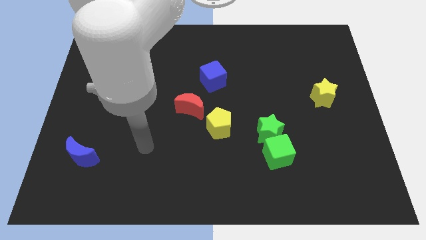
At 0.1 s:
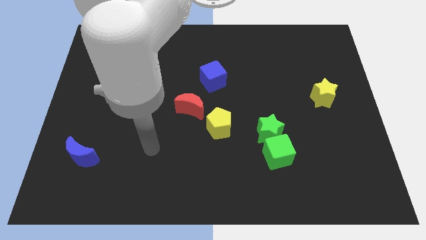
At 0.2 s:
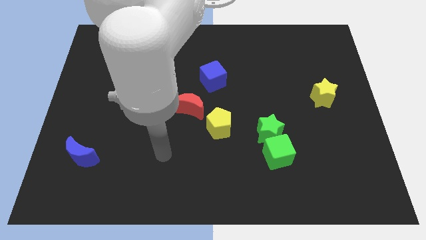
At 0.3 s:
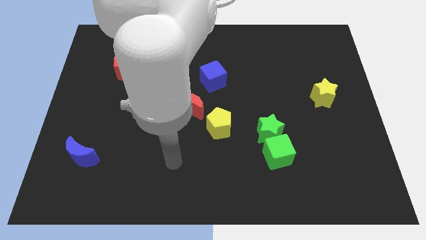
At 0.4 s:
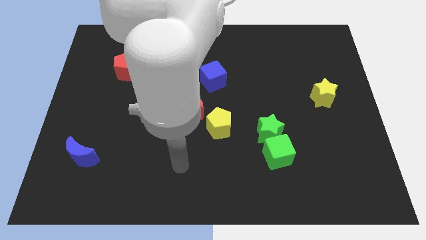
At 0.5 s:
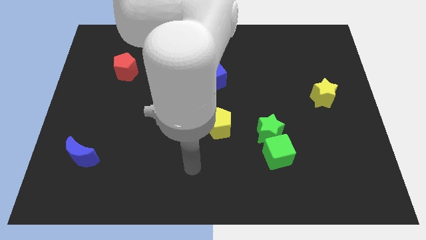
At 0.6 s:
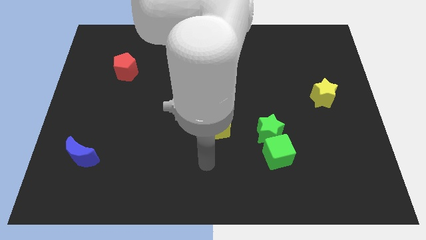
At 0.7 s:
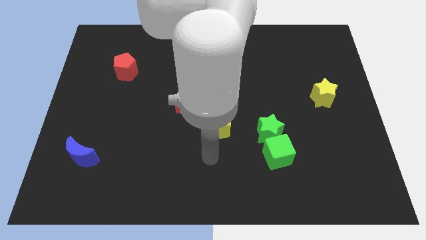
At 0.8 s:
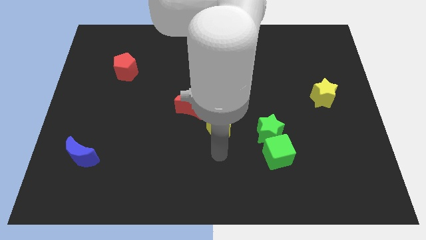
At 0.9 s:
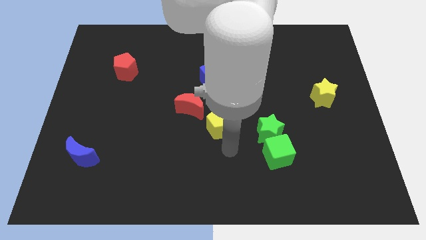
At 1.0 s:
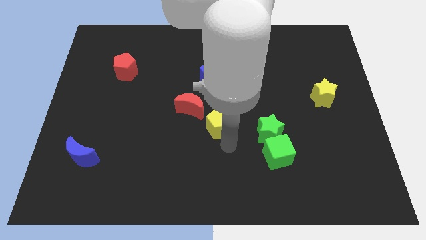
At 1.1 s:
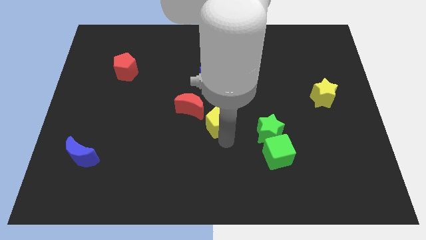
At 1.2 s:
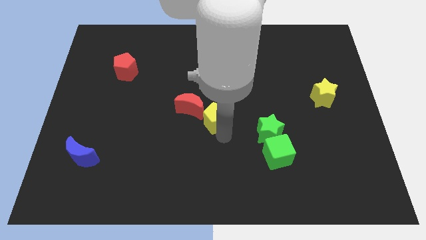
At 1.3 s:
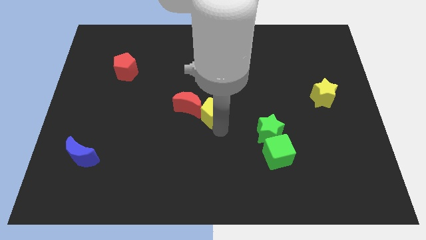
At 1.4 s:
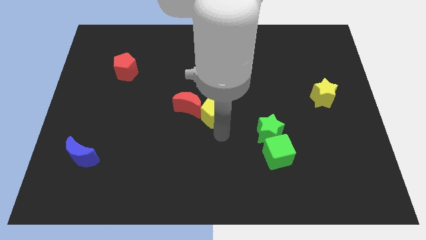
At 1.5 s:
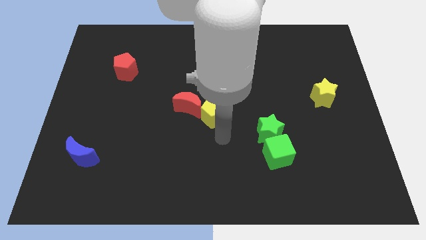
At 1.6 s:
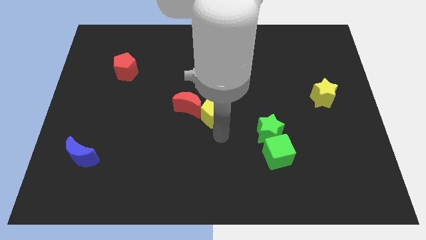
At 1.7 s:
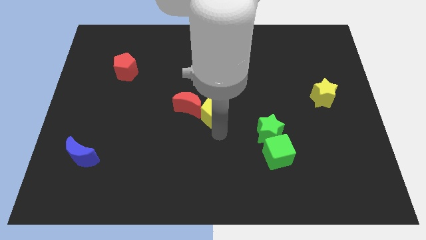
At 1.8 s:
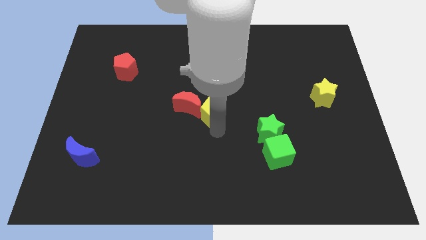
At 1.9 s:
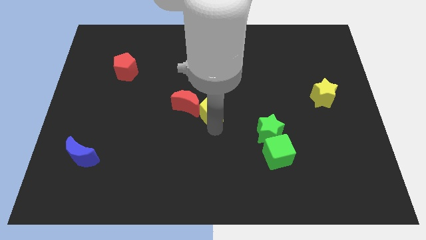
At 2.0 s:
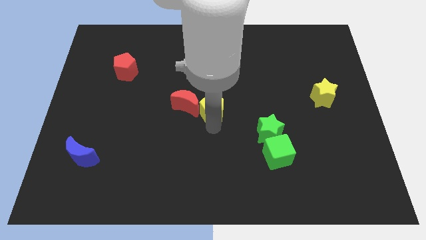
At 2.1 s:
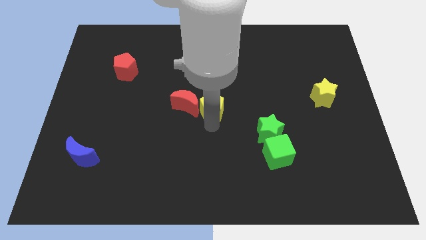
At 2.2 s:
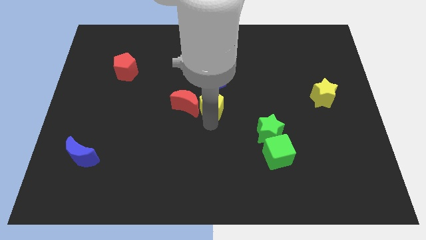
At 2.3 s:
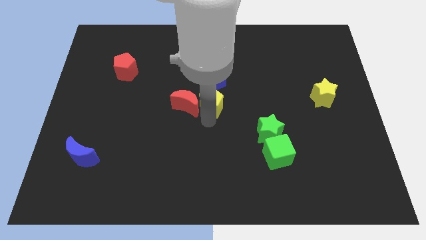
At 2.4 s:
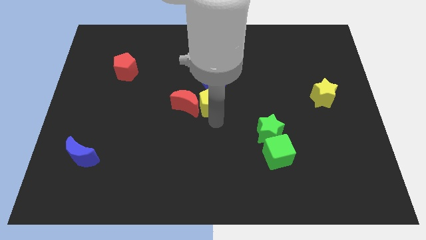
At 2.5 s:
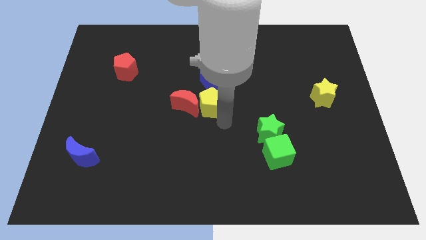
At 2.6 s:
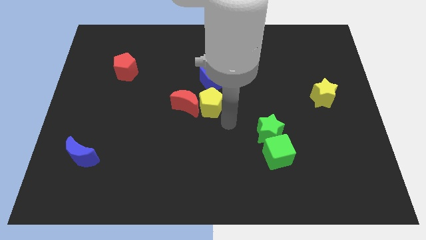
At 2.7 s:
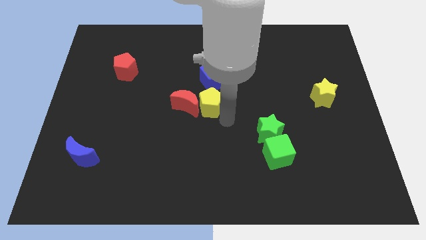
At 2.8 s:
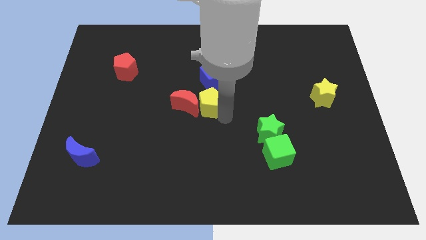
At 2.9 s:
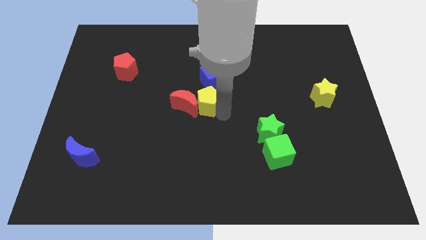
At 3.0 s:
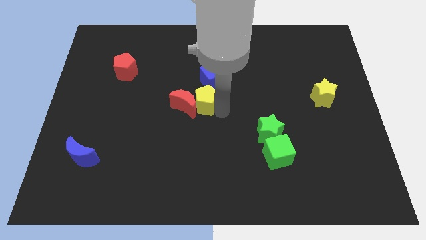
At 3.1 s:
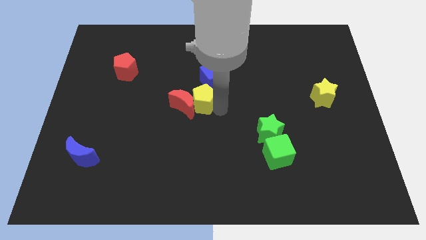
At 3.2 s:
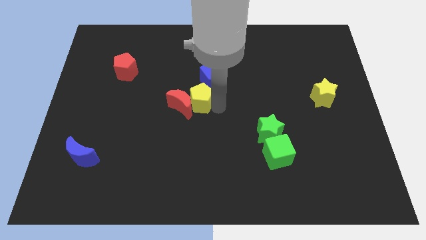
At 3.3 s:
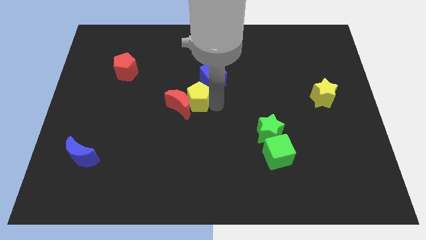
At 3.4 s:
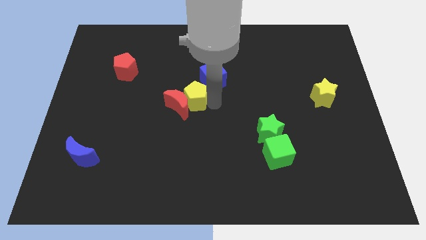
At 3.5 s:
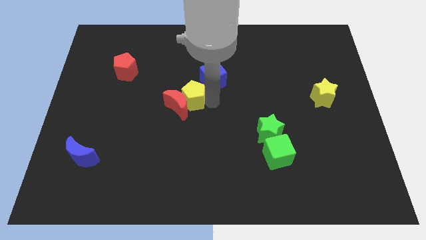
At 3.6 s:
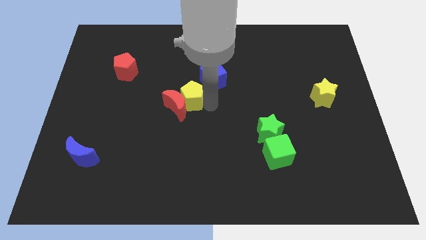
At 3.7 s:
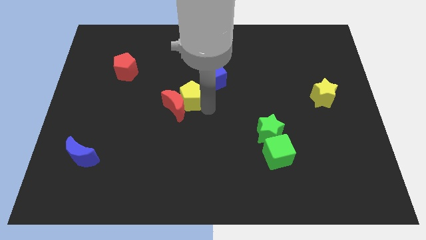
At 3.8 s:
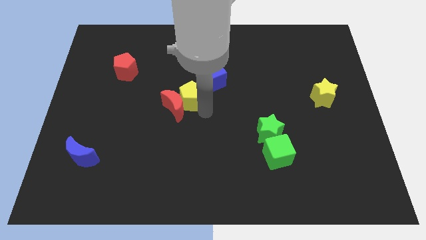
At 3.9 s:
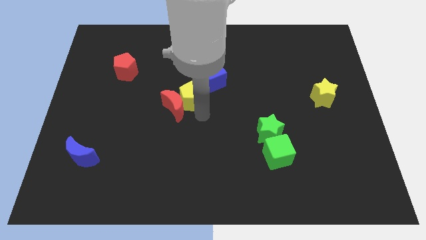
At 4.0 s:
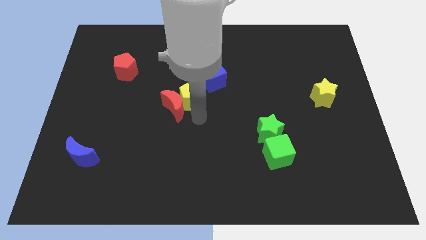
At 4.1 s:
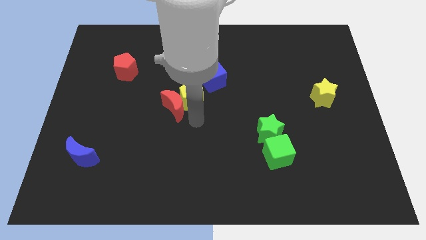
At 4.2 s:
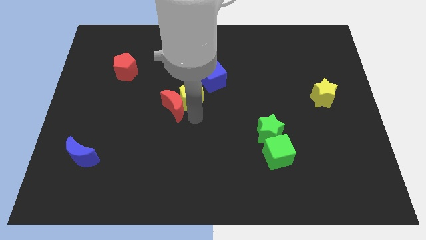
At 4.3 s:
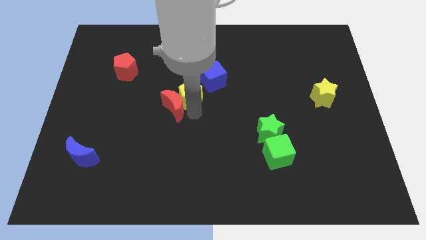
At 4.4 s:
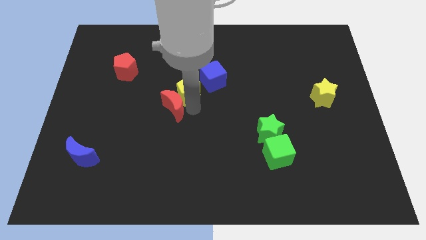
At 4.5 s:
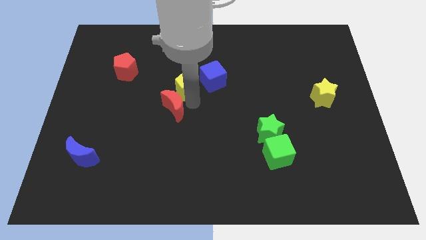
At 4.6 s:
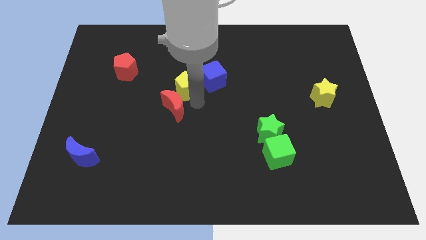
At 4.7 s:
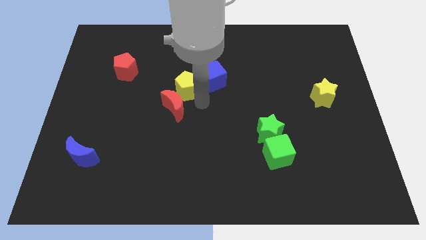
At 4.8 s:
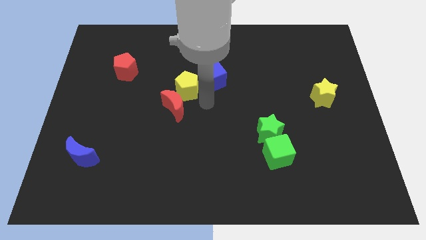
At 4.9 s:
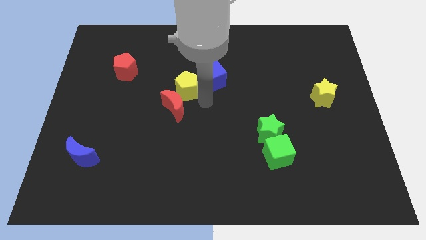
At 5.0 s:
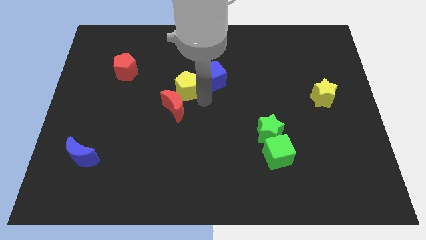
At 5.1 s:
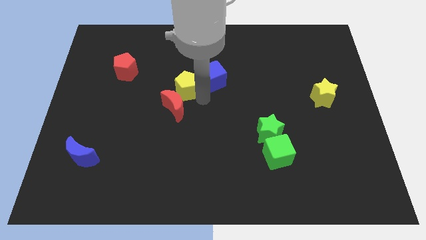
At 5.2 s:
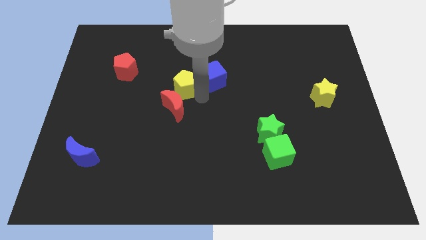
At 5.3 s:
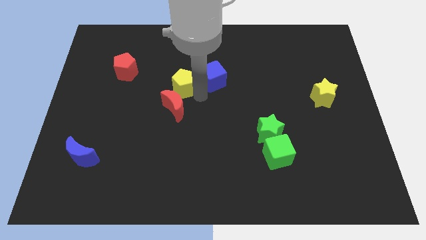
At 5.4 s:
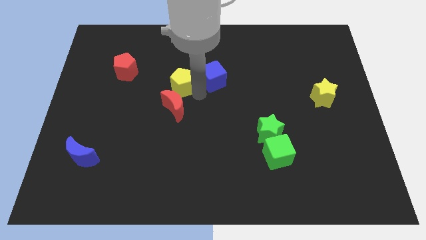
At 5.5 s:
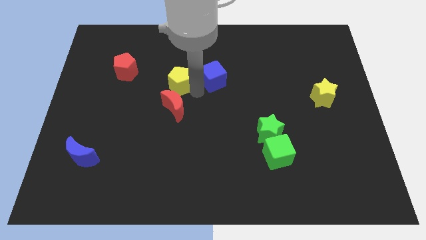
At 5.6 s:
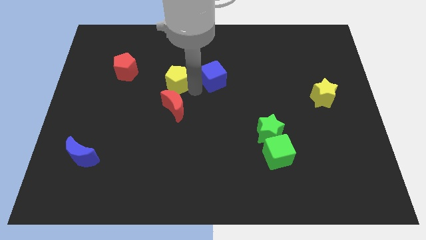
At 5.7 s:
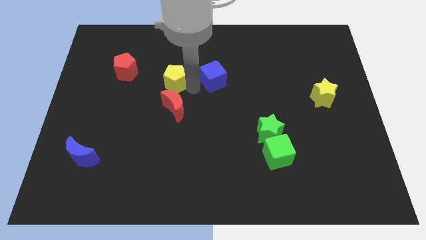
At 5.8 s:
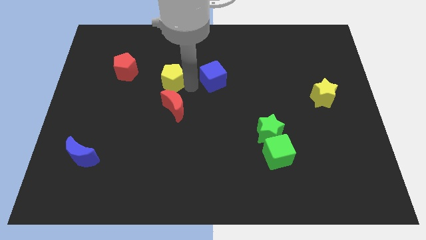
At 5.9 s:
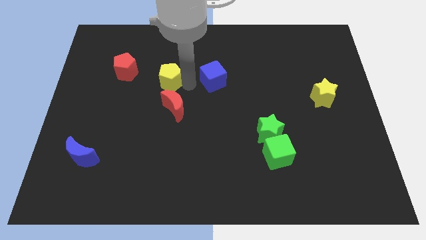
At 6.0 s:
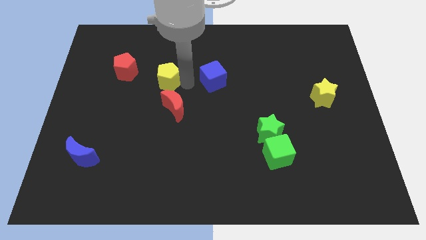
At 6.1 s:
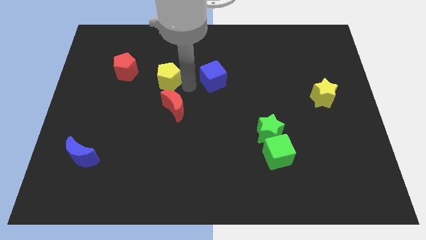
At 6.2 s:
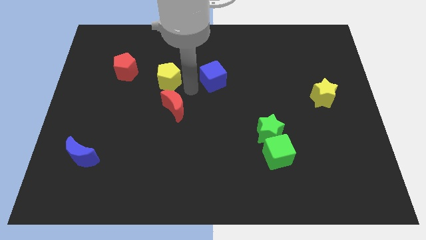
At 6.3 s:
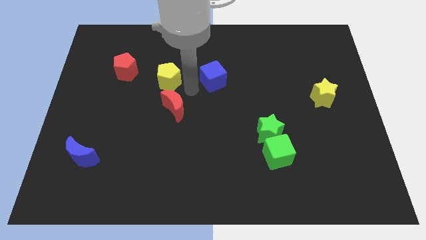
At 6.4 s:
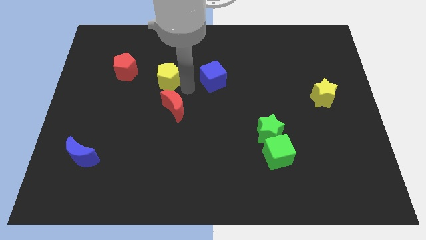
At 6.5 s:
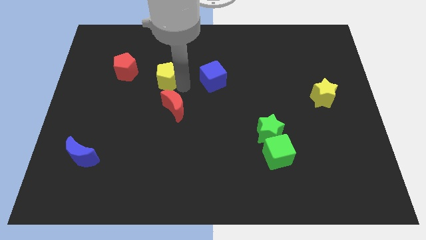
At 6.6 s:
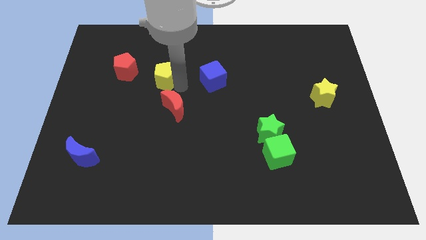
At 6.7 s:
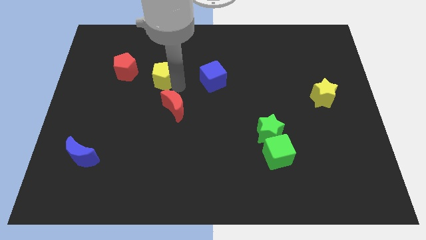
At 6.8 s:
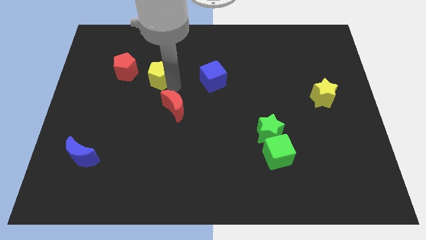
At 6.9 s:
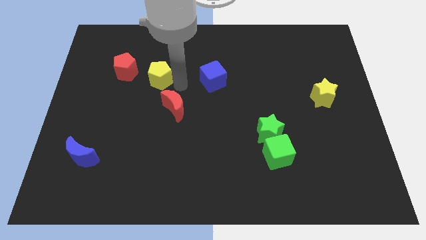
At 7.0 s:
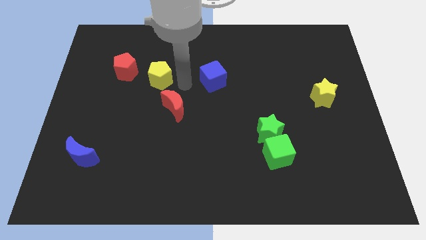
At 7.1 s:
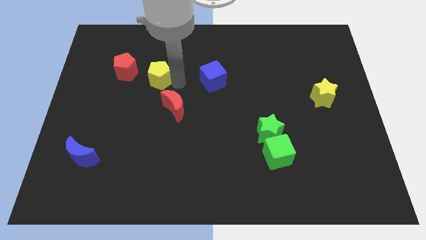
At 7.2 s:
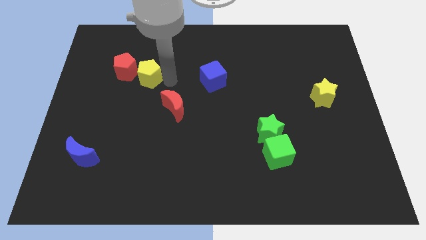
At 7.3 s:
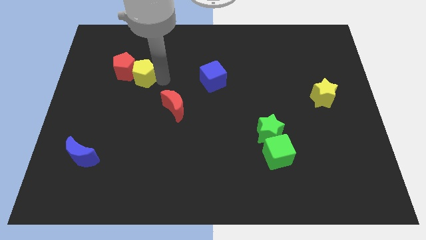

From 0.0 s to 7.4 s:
put the yellow pentagon towards the red pentagon
